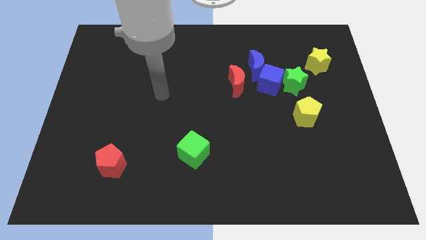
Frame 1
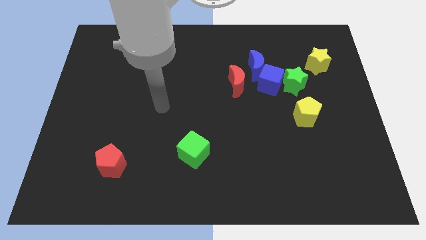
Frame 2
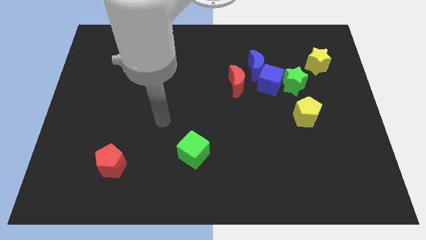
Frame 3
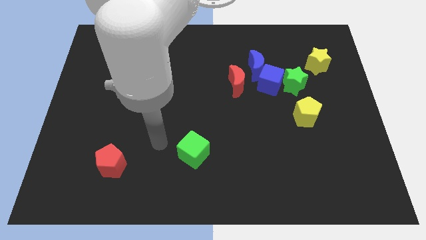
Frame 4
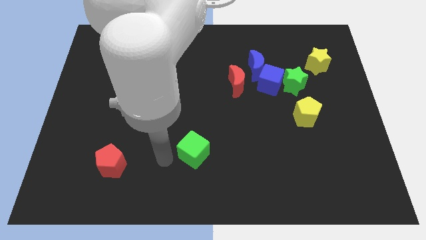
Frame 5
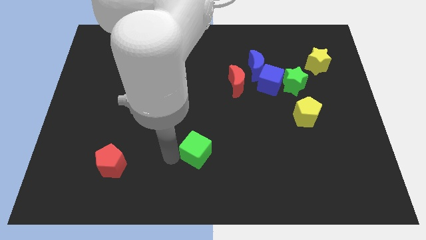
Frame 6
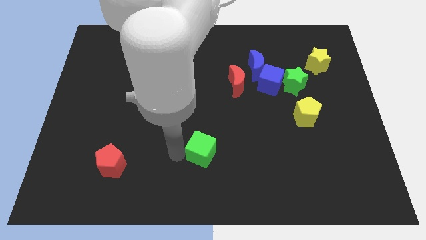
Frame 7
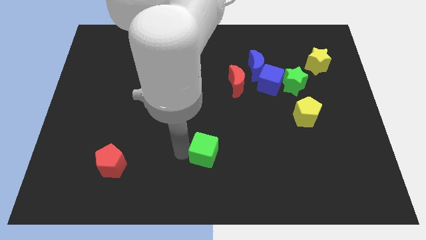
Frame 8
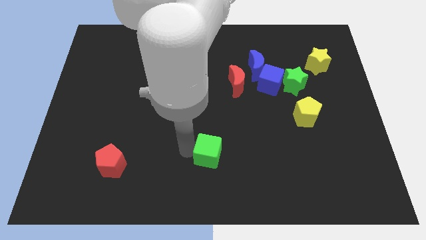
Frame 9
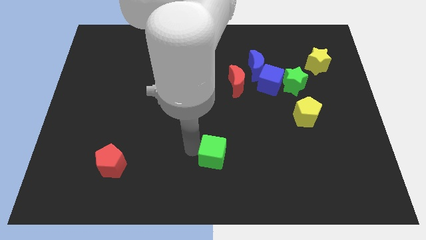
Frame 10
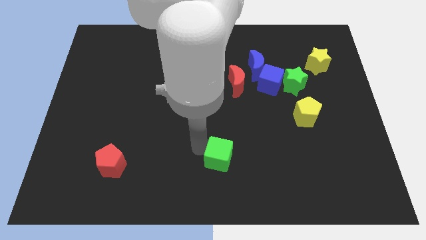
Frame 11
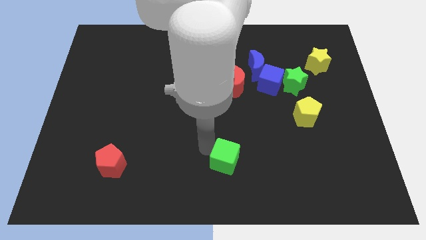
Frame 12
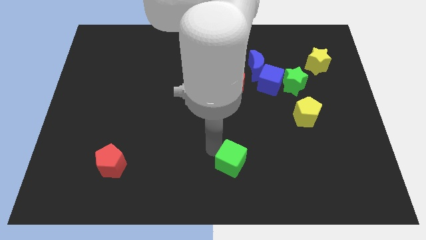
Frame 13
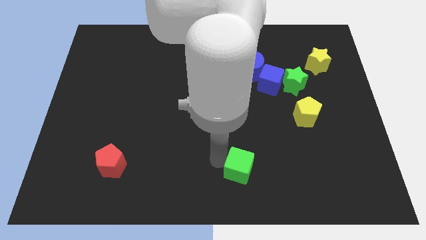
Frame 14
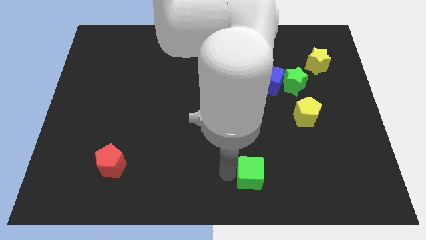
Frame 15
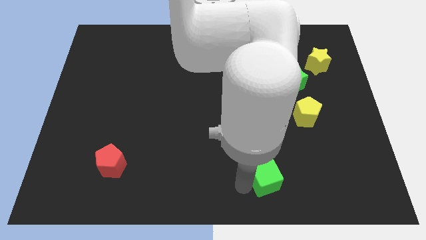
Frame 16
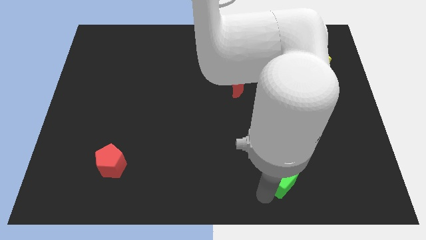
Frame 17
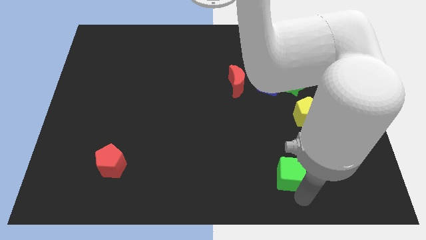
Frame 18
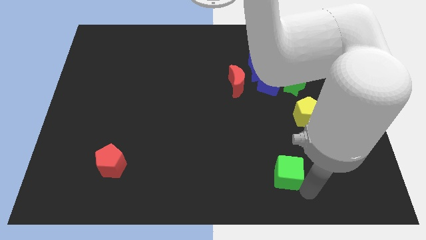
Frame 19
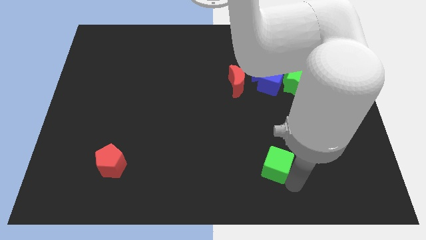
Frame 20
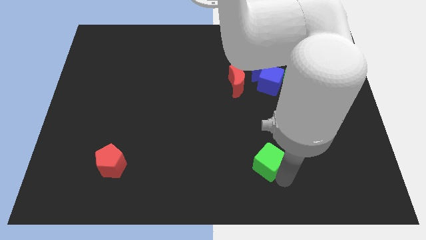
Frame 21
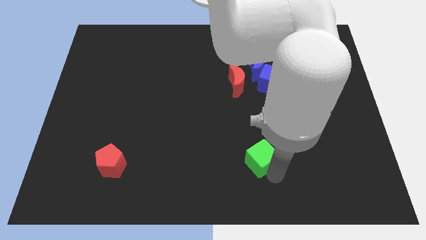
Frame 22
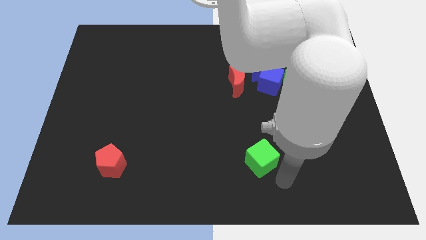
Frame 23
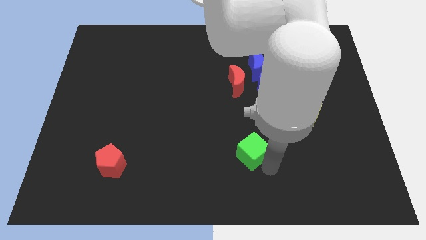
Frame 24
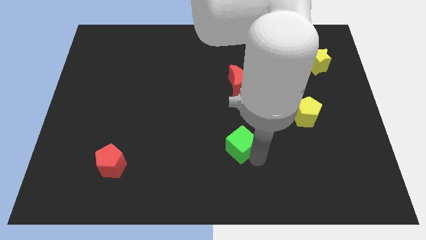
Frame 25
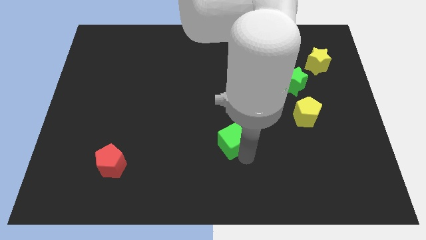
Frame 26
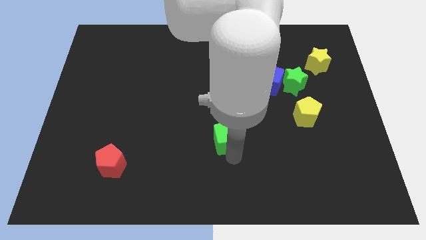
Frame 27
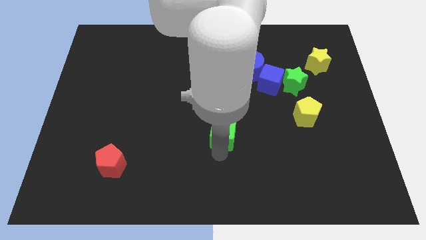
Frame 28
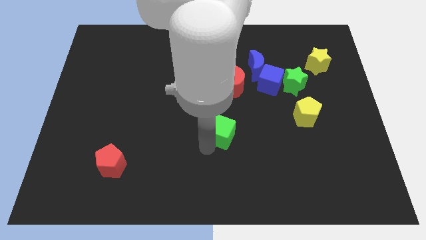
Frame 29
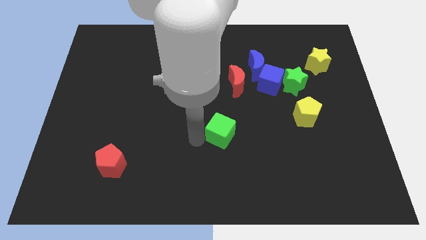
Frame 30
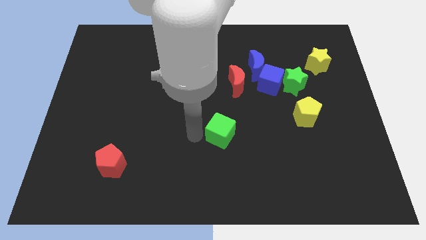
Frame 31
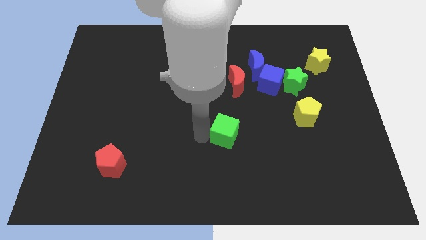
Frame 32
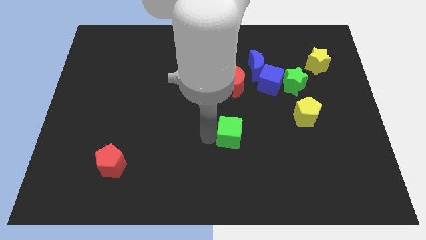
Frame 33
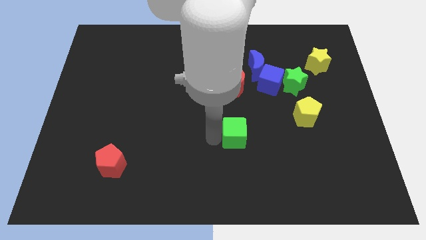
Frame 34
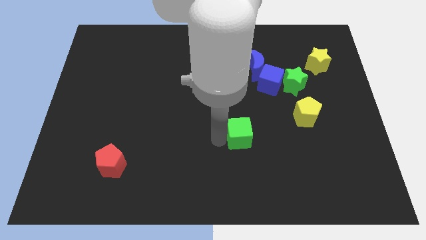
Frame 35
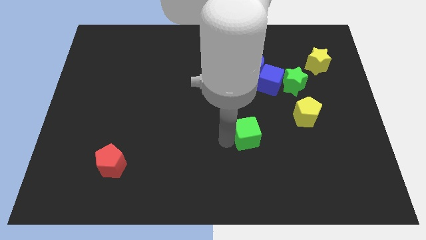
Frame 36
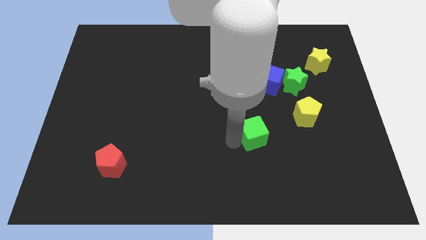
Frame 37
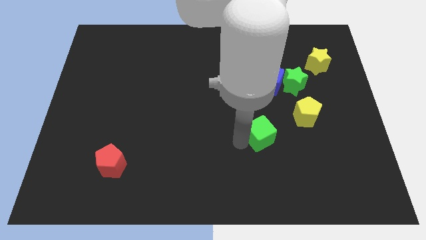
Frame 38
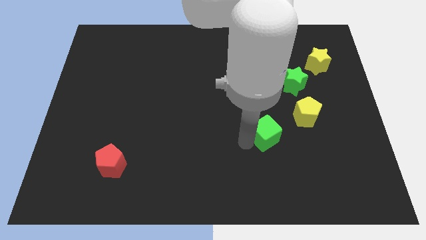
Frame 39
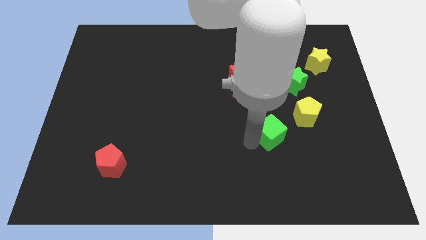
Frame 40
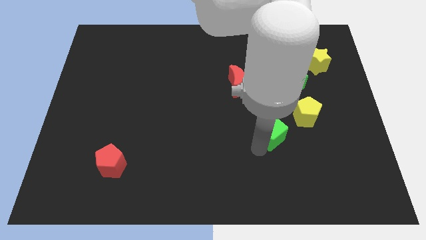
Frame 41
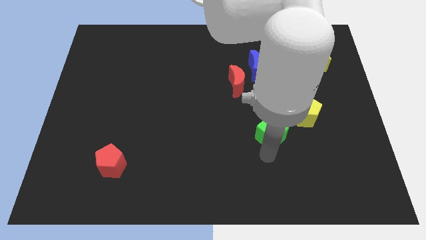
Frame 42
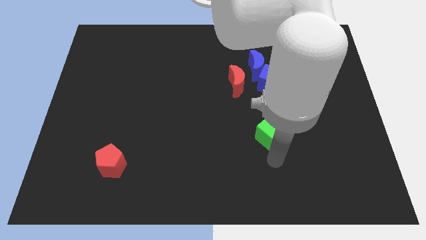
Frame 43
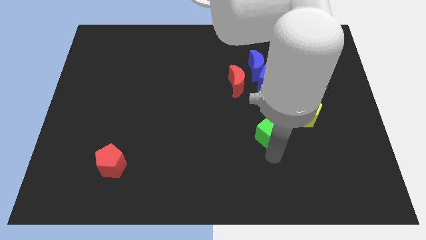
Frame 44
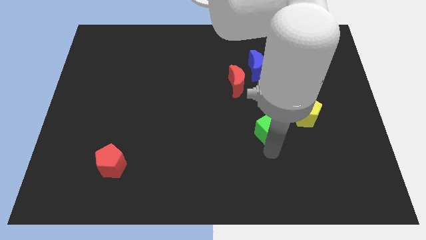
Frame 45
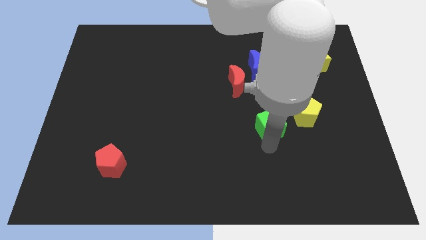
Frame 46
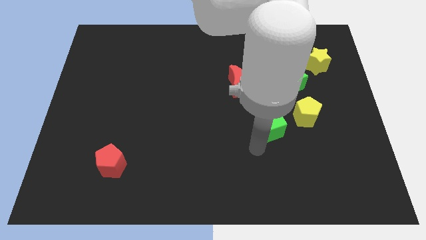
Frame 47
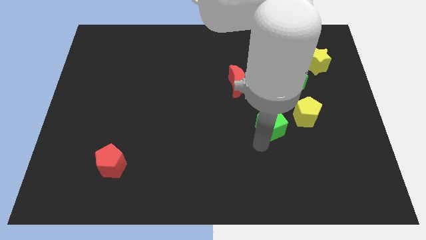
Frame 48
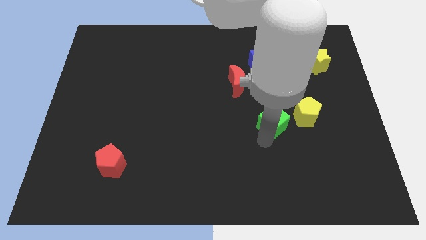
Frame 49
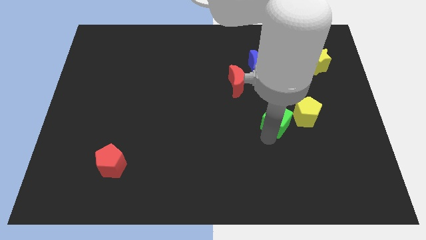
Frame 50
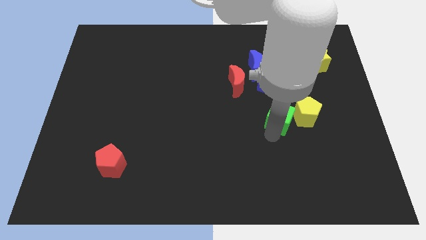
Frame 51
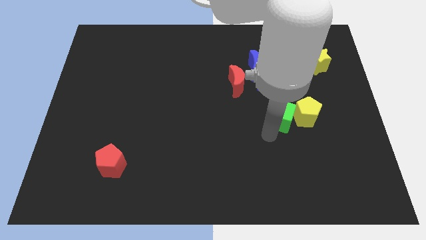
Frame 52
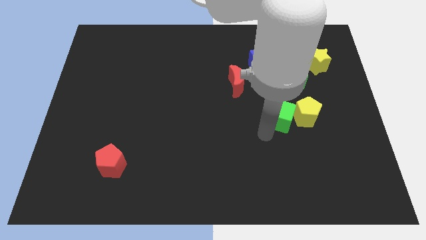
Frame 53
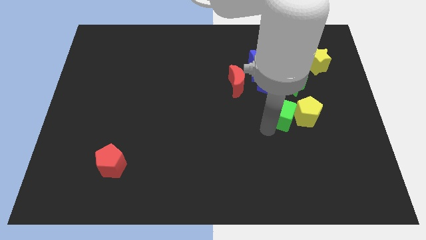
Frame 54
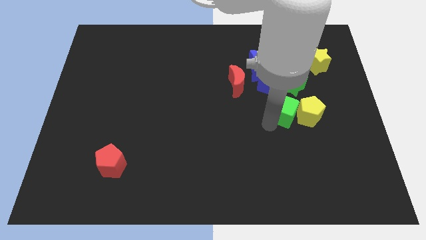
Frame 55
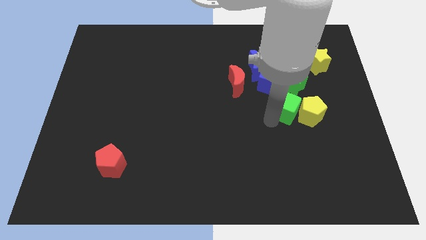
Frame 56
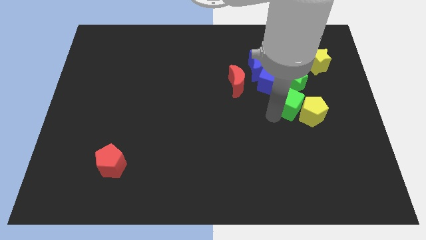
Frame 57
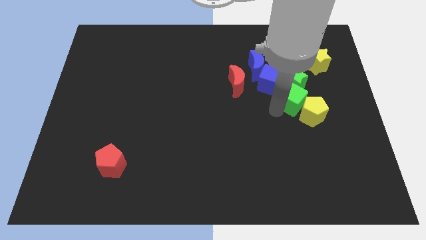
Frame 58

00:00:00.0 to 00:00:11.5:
move the green cube above the yellow pentagon

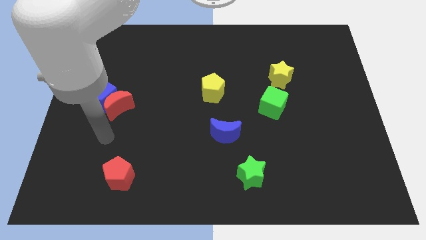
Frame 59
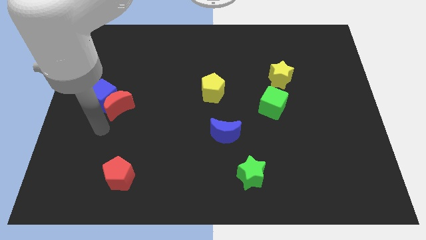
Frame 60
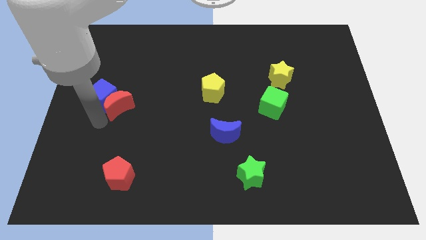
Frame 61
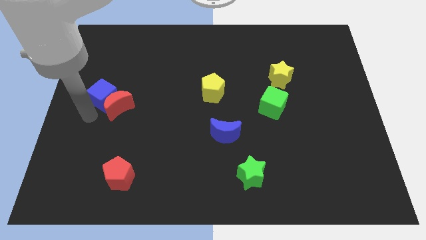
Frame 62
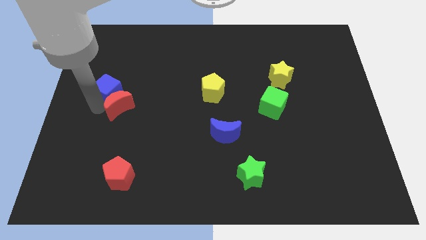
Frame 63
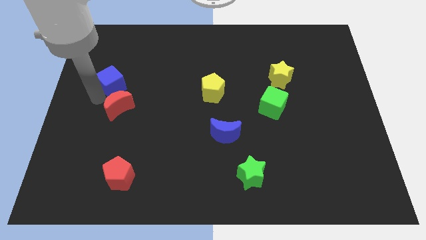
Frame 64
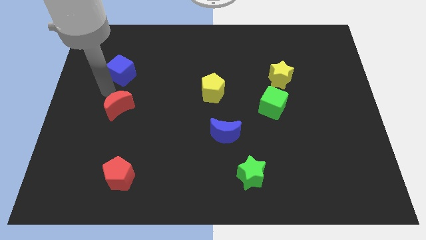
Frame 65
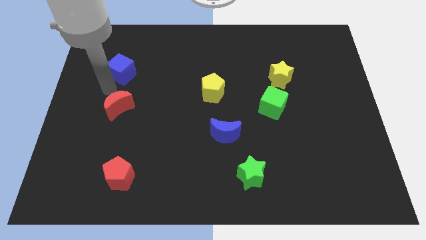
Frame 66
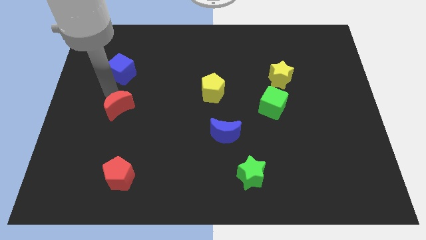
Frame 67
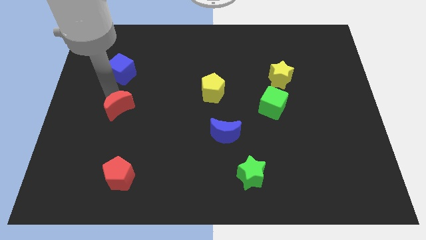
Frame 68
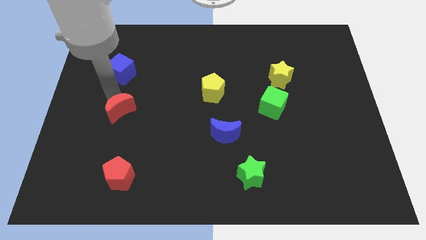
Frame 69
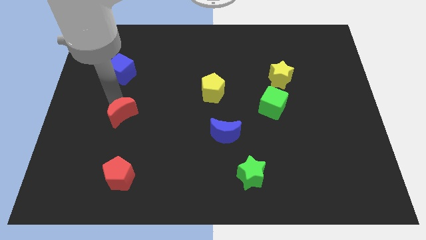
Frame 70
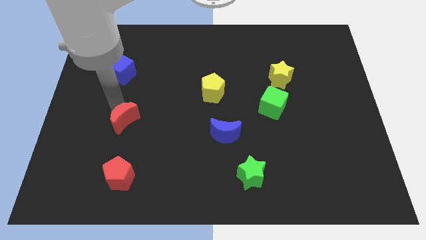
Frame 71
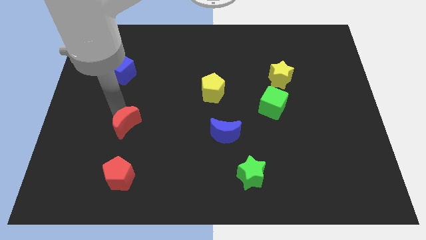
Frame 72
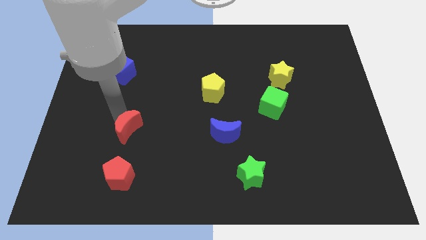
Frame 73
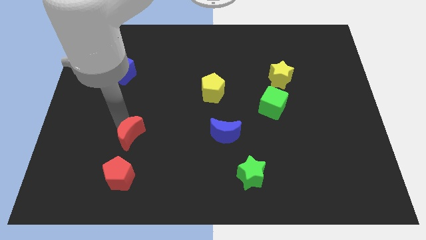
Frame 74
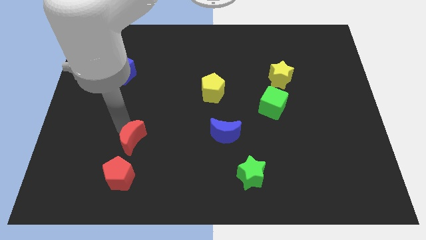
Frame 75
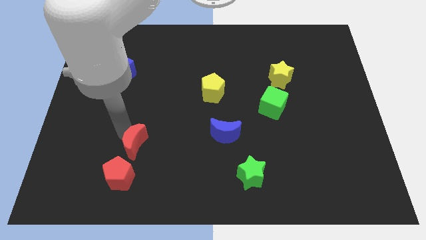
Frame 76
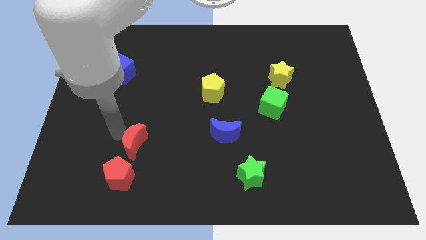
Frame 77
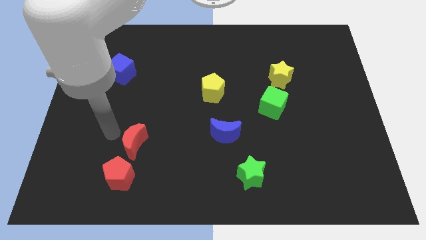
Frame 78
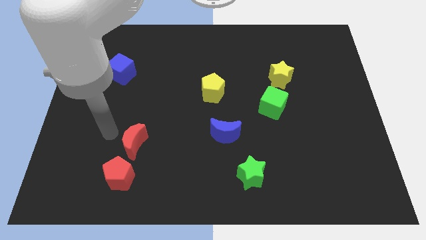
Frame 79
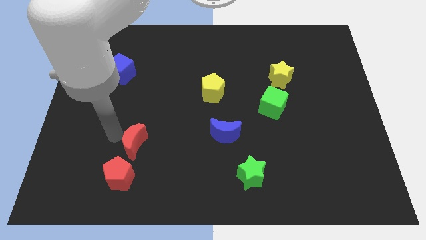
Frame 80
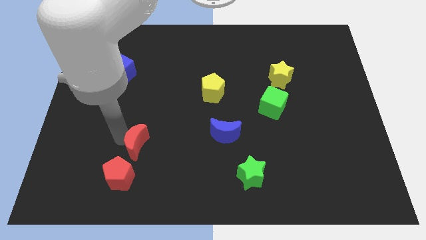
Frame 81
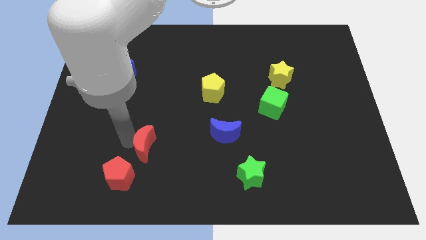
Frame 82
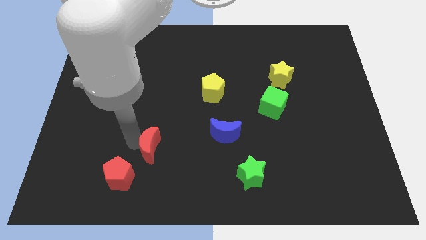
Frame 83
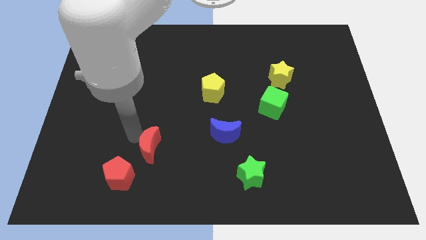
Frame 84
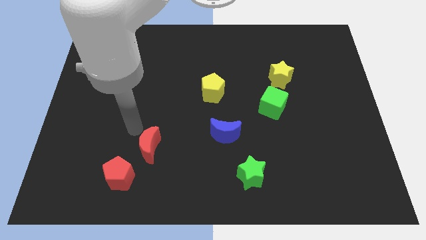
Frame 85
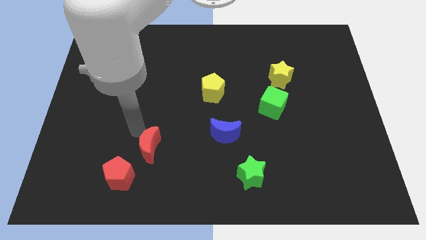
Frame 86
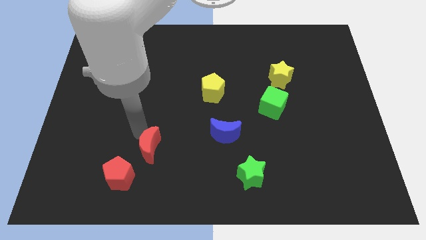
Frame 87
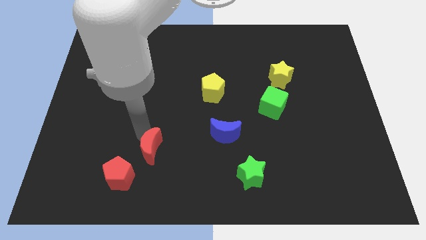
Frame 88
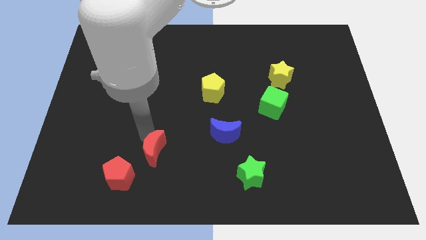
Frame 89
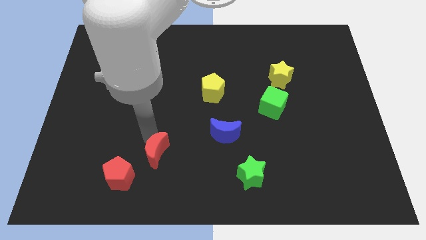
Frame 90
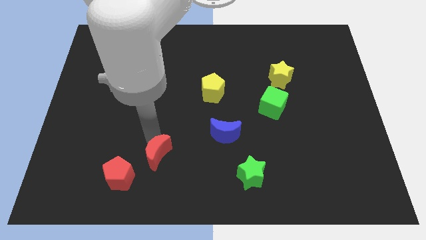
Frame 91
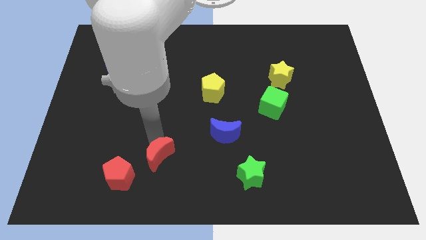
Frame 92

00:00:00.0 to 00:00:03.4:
put the red moon to the right of the red pentagon
